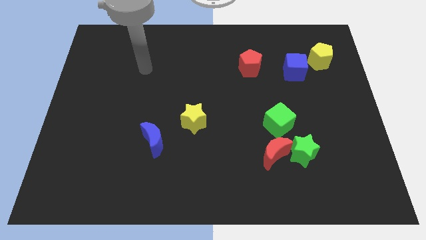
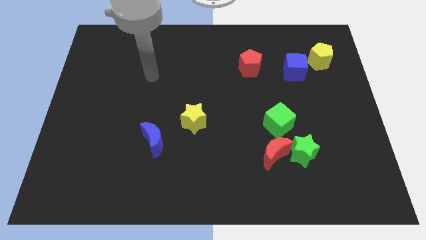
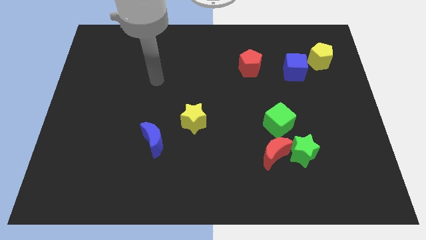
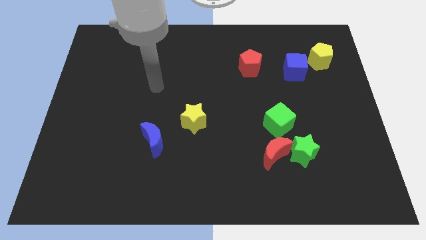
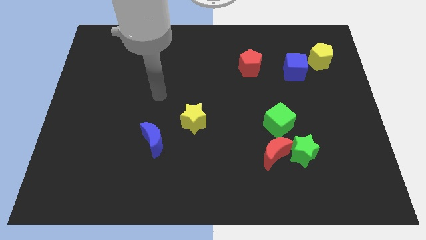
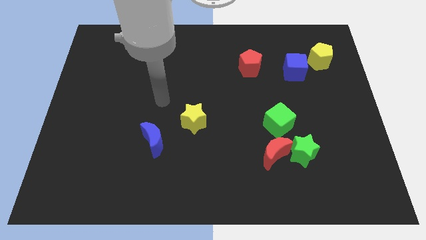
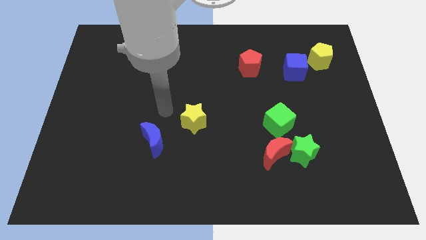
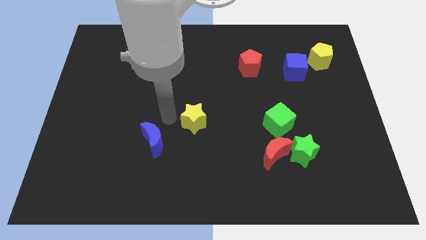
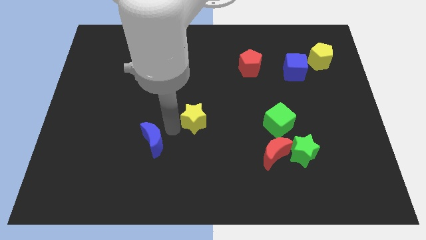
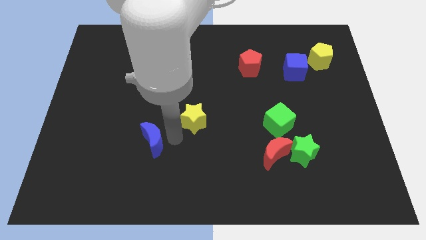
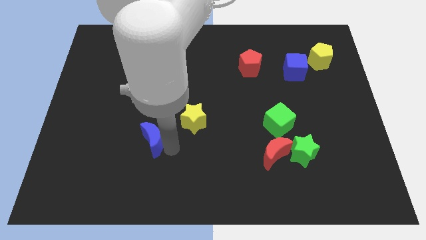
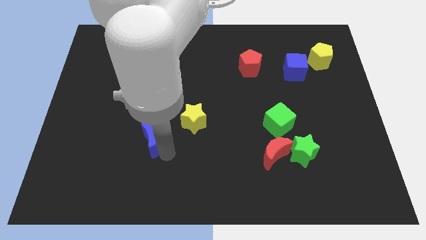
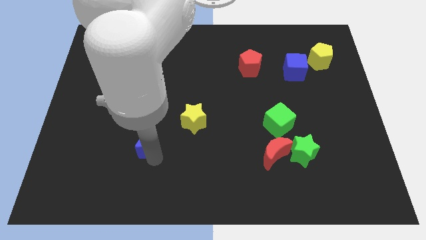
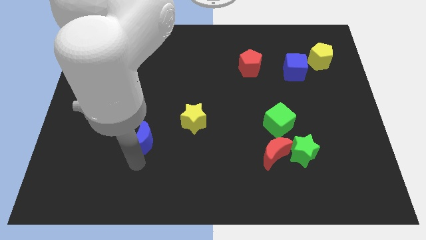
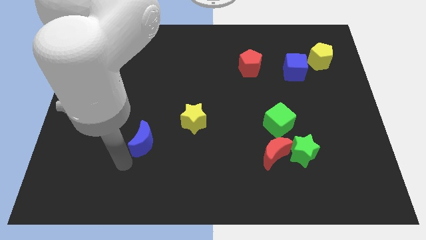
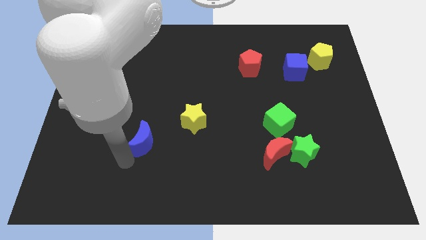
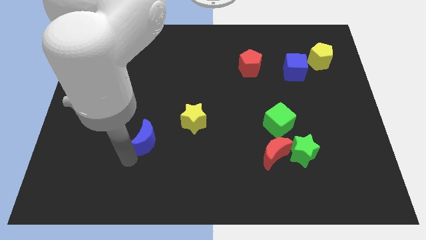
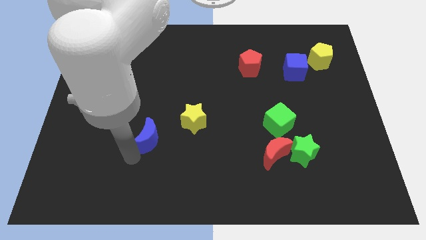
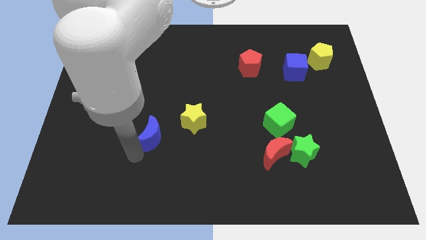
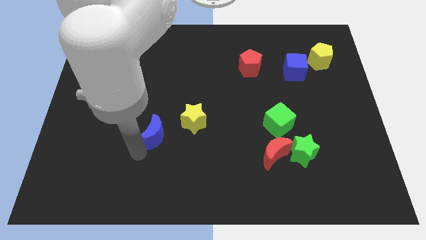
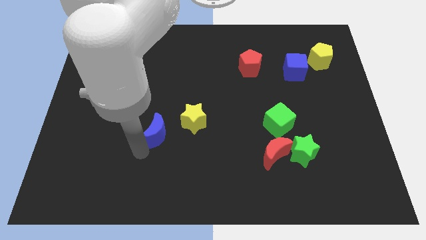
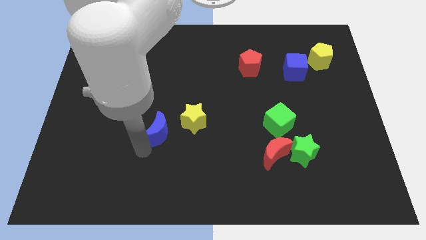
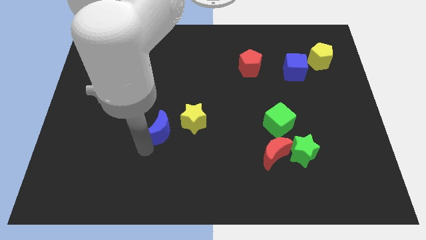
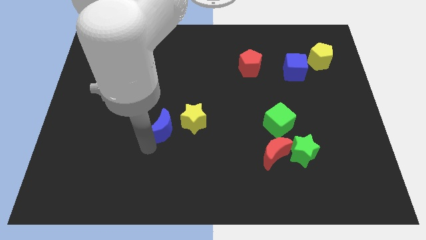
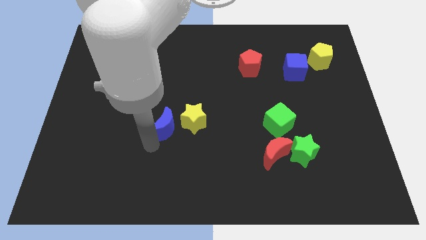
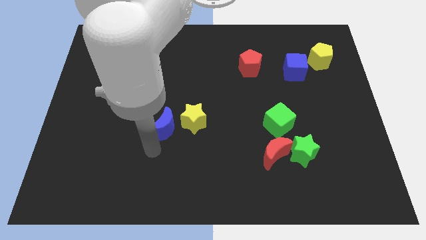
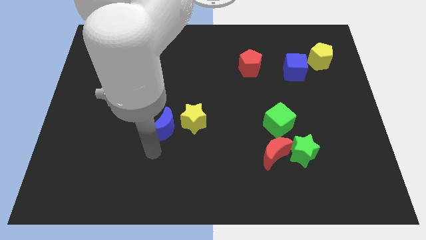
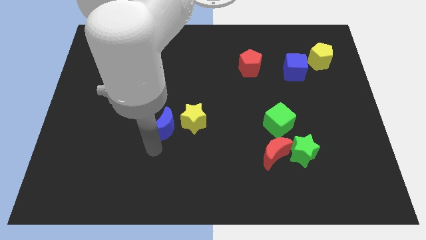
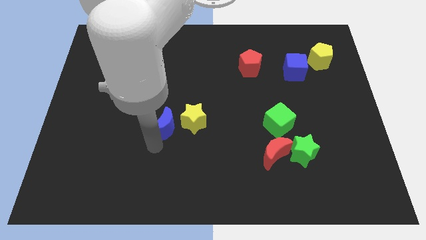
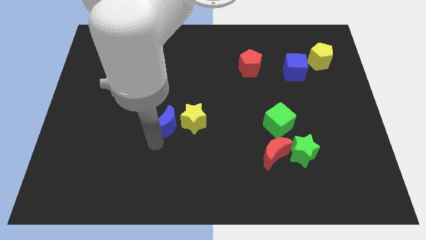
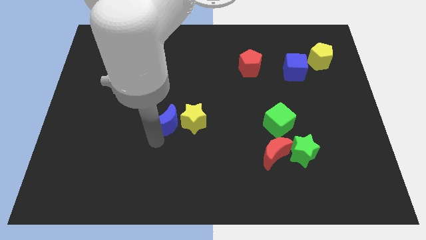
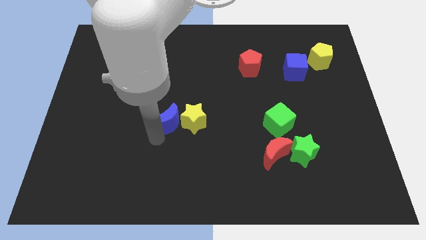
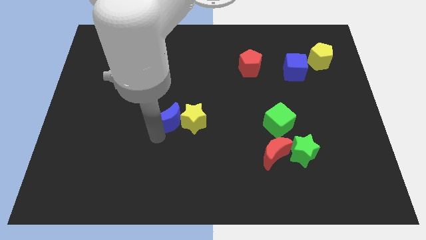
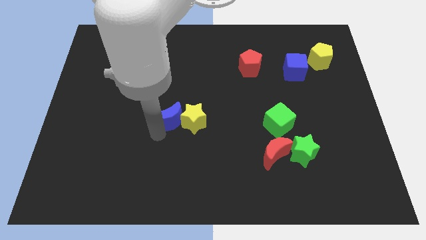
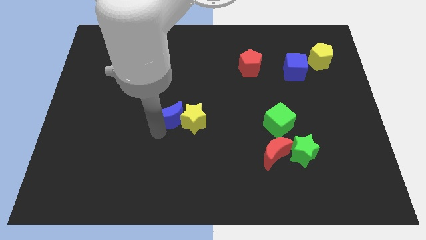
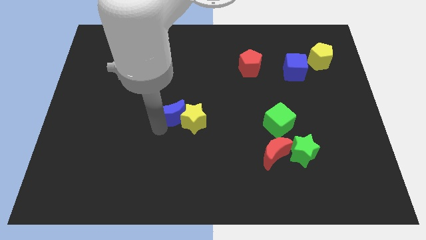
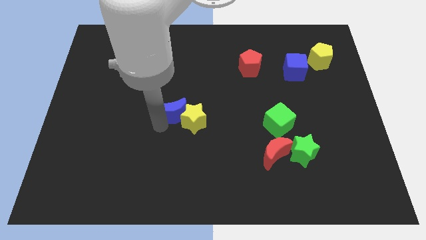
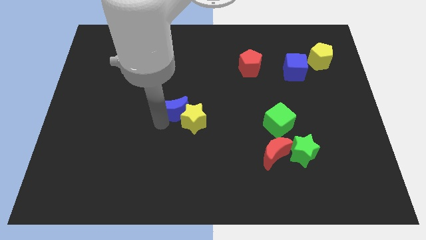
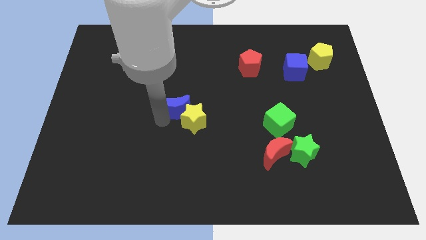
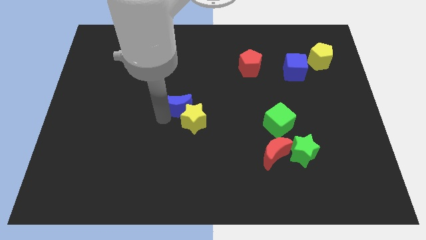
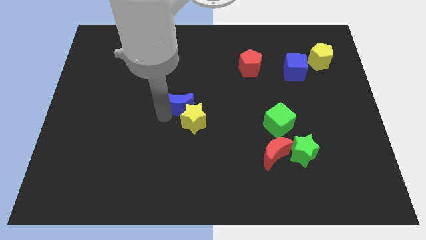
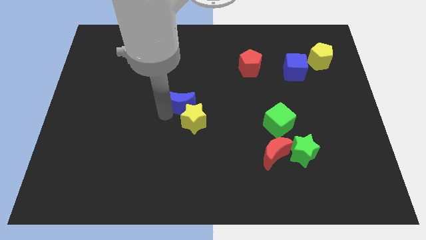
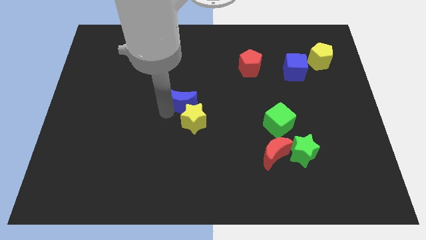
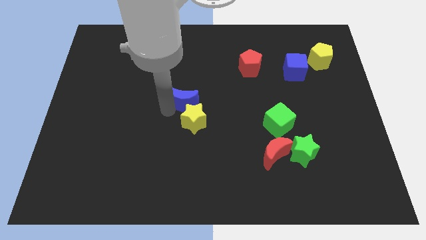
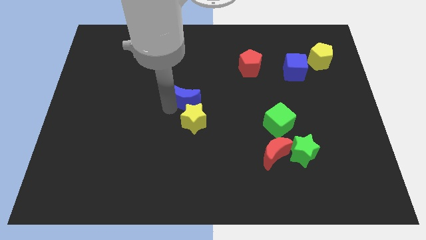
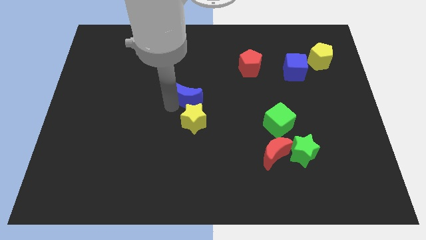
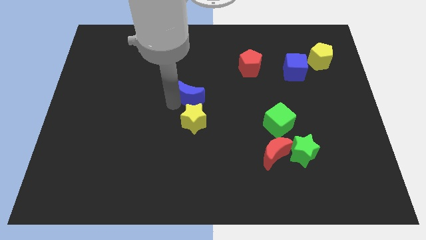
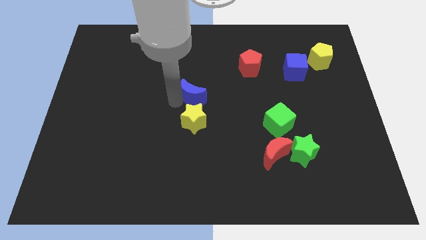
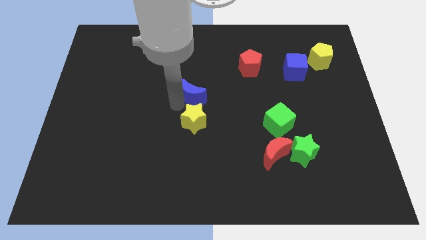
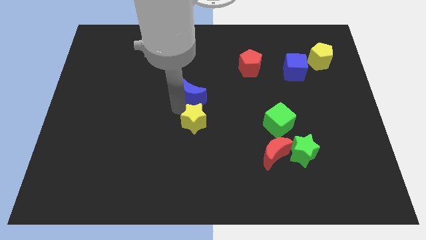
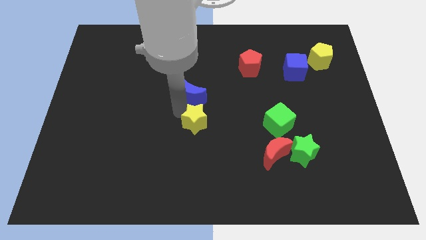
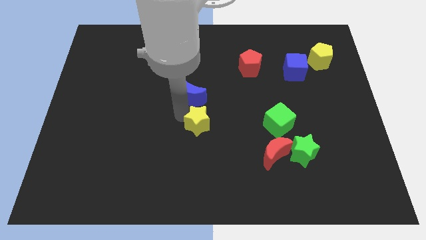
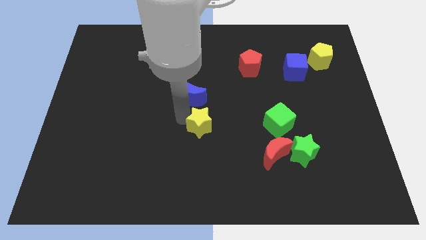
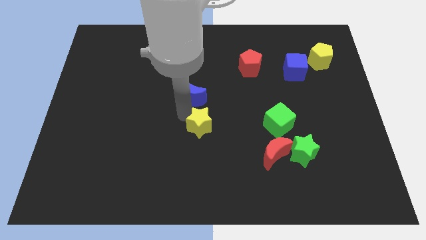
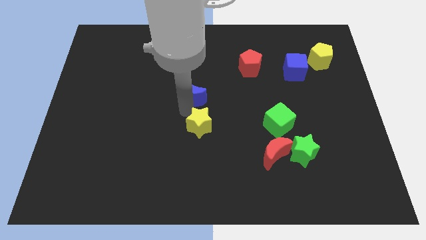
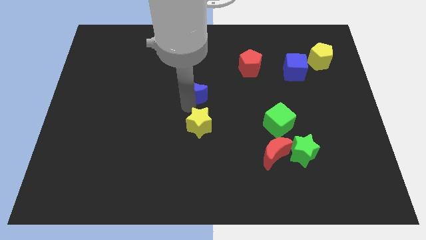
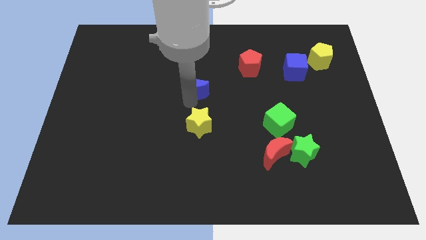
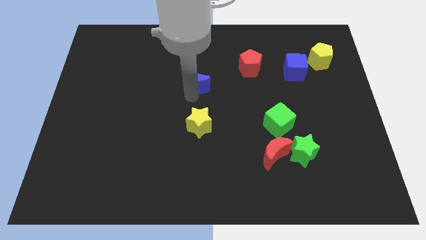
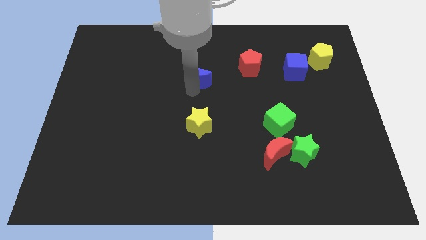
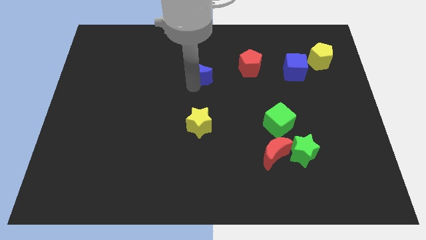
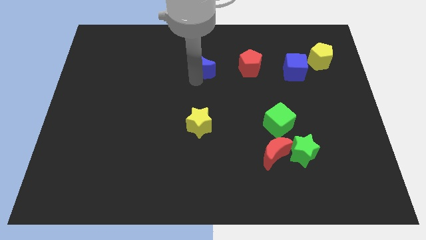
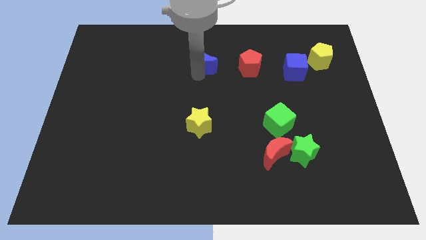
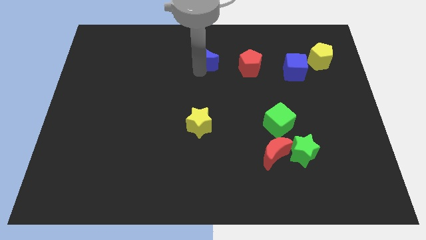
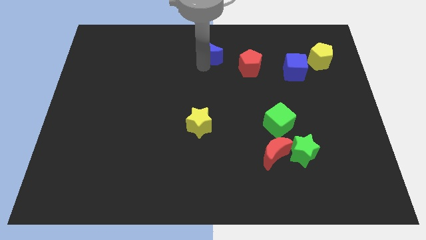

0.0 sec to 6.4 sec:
push the blue moon to the towards your base
